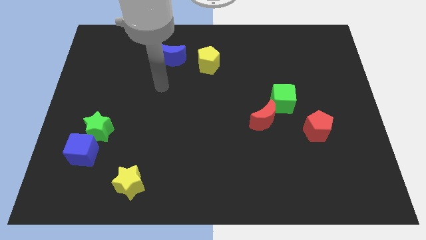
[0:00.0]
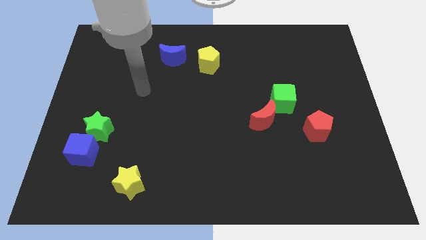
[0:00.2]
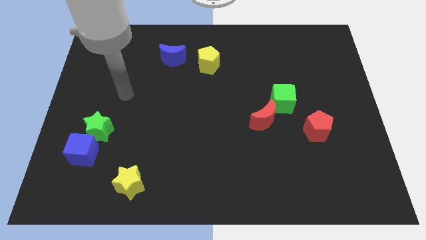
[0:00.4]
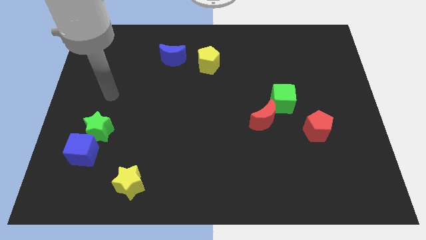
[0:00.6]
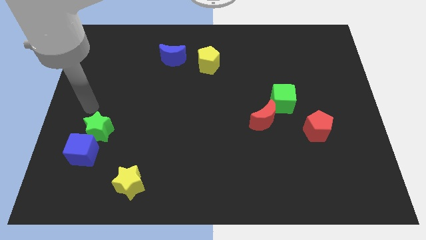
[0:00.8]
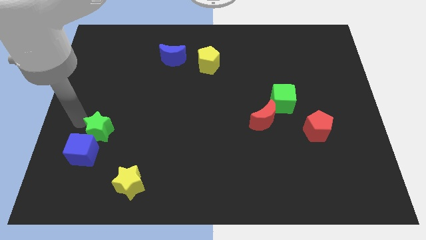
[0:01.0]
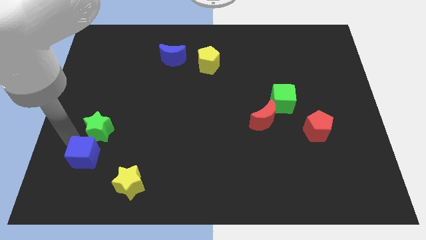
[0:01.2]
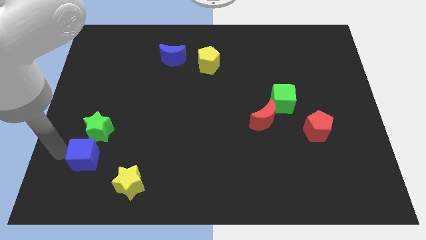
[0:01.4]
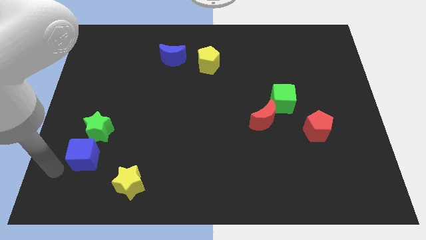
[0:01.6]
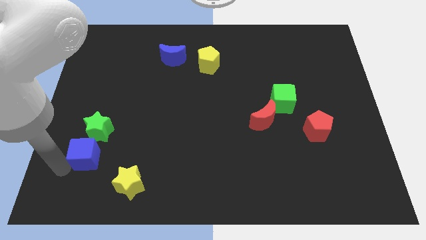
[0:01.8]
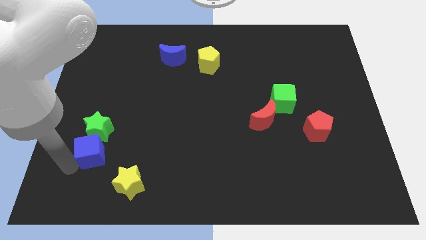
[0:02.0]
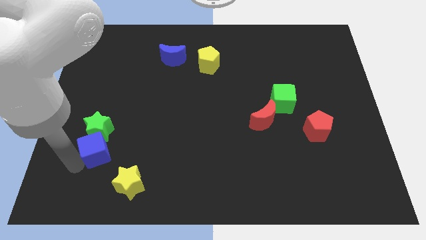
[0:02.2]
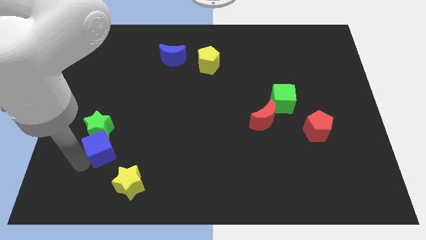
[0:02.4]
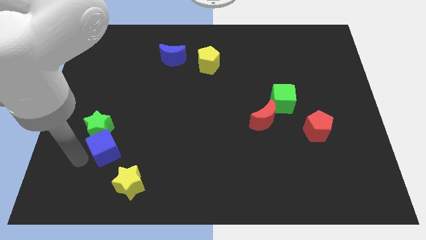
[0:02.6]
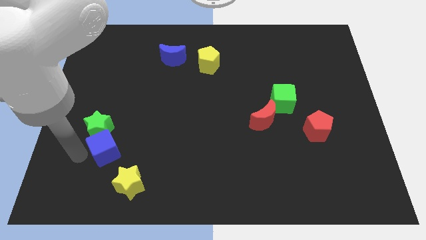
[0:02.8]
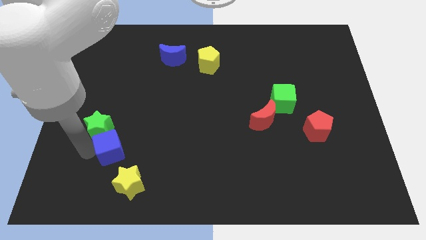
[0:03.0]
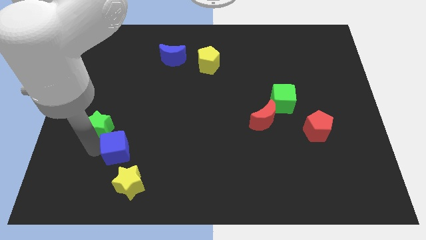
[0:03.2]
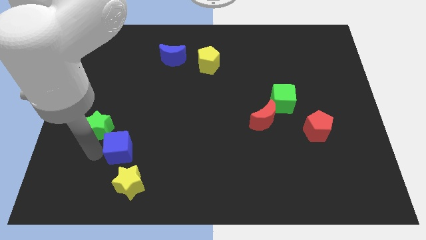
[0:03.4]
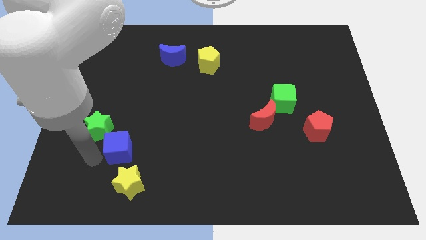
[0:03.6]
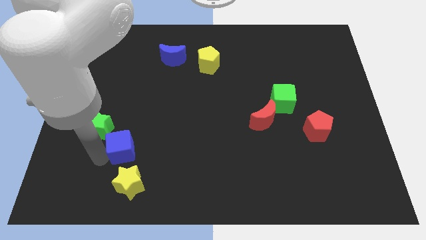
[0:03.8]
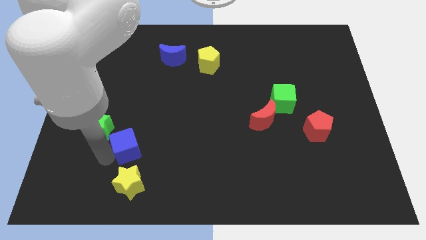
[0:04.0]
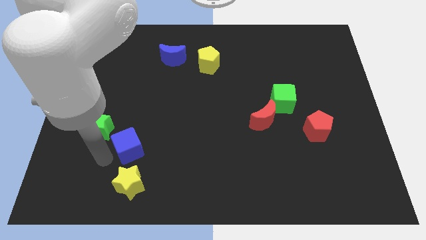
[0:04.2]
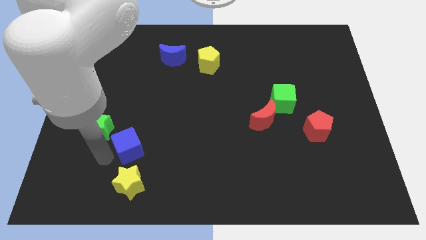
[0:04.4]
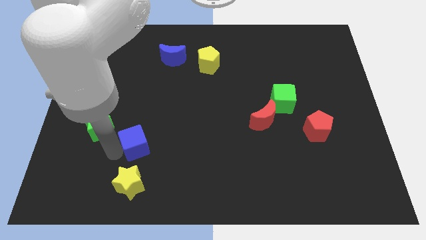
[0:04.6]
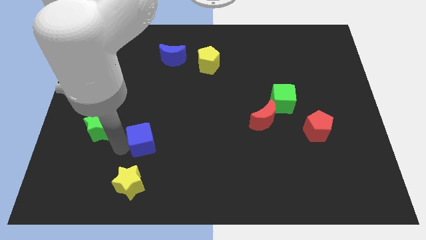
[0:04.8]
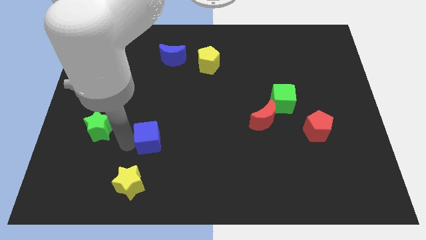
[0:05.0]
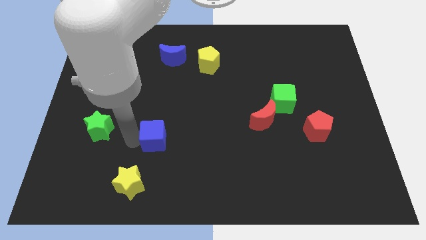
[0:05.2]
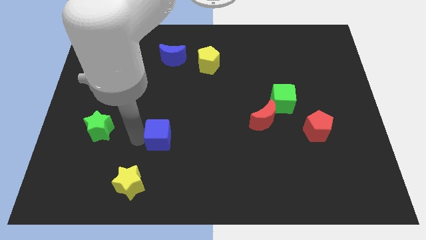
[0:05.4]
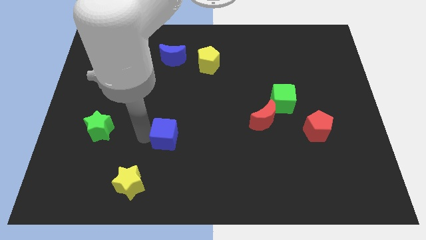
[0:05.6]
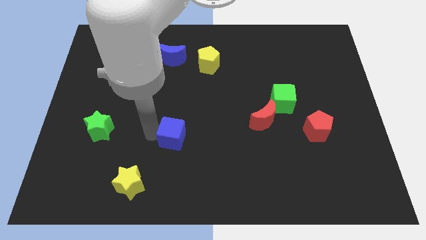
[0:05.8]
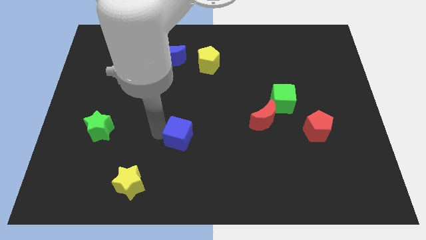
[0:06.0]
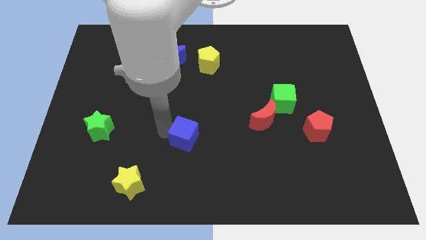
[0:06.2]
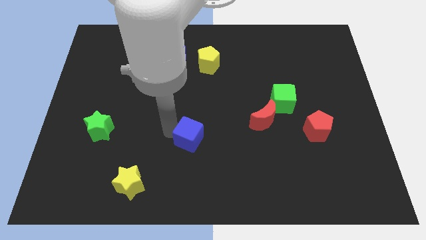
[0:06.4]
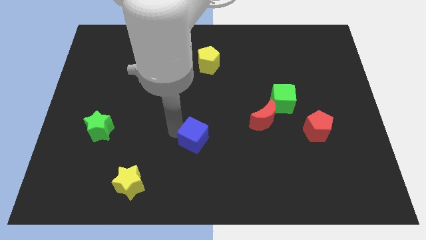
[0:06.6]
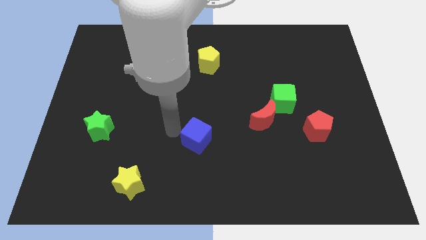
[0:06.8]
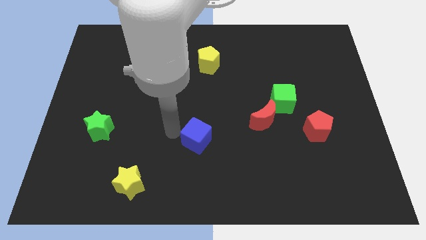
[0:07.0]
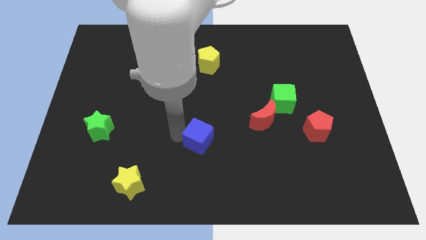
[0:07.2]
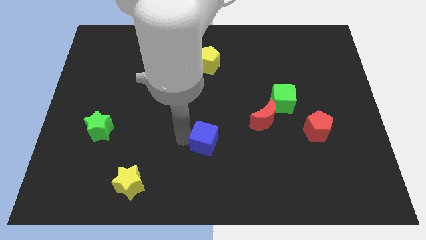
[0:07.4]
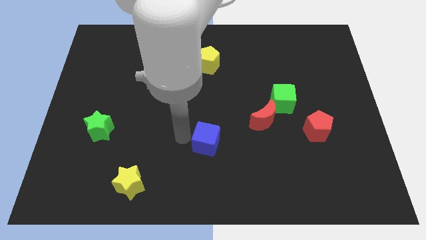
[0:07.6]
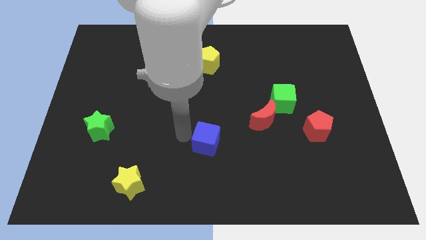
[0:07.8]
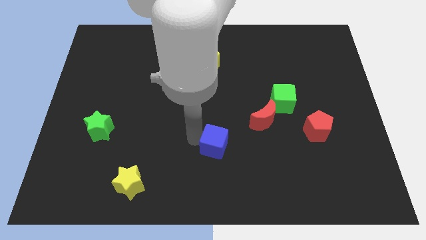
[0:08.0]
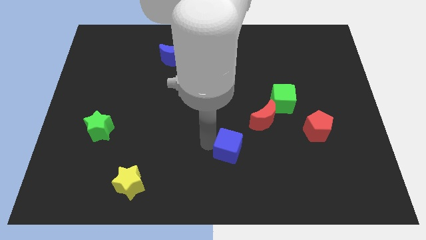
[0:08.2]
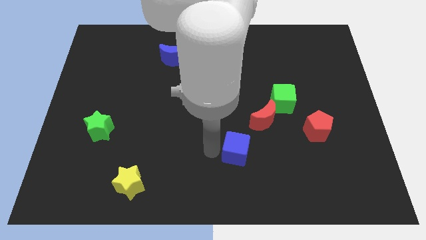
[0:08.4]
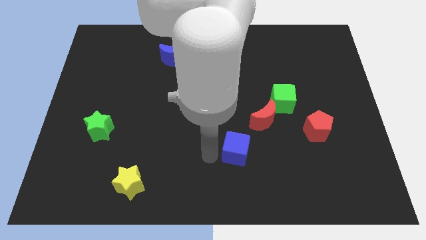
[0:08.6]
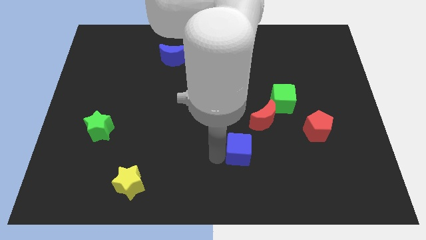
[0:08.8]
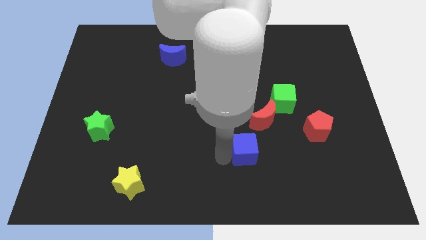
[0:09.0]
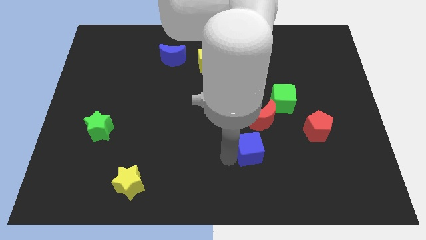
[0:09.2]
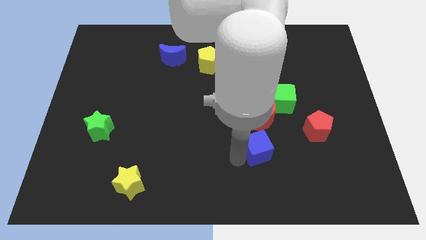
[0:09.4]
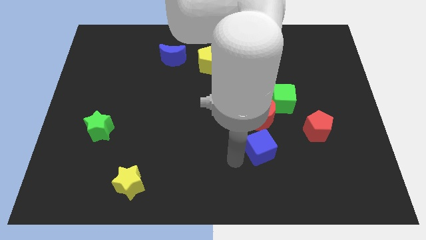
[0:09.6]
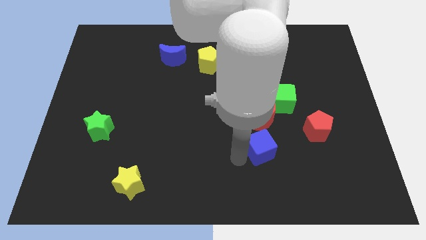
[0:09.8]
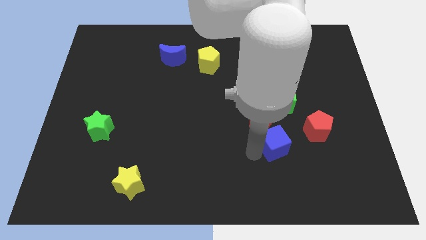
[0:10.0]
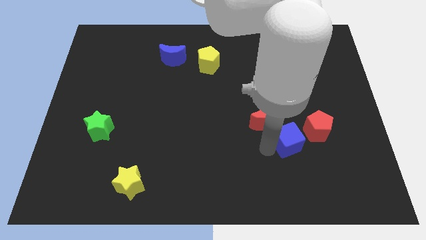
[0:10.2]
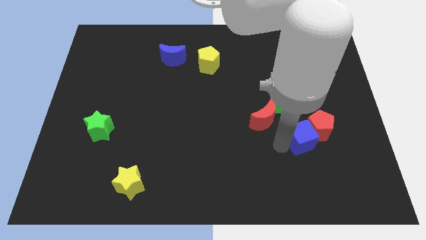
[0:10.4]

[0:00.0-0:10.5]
slide the blue cube to the red pentagon

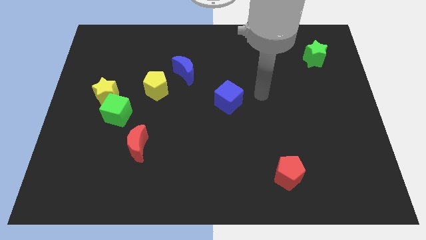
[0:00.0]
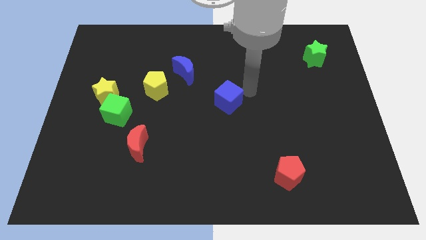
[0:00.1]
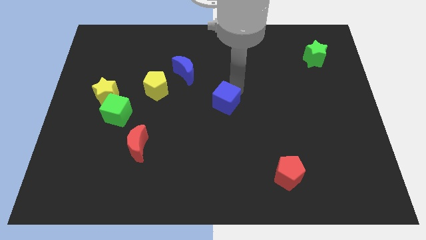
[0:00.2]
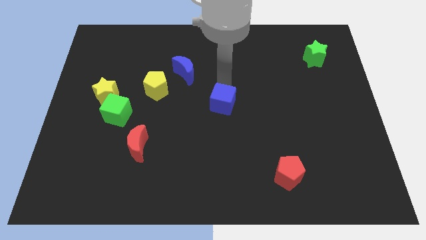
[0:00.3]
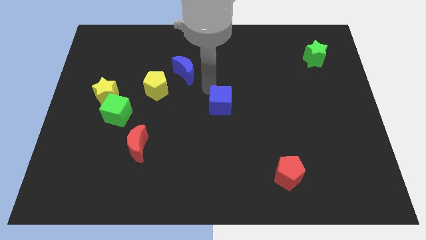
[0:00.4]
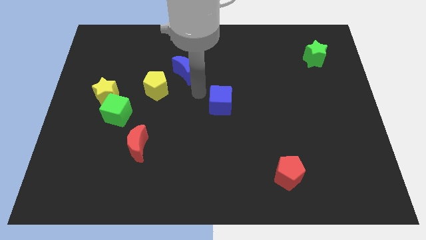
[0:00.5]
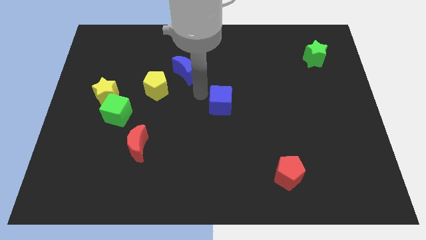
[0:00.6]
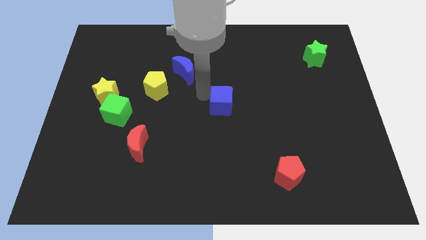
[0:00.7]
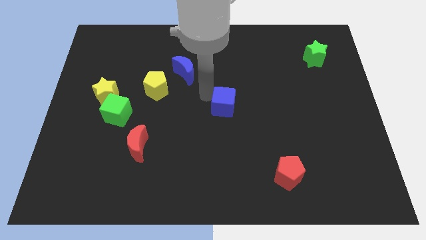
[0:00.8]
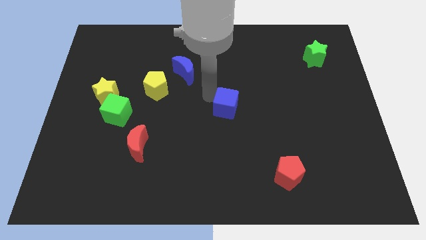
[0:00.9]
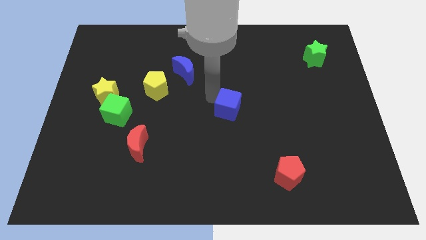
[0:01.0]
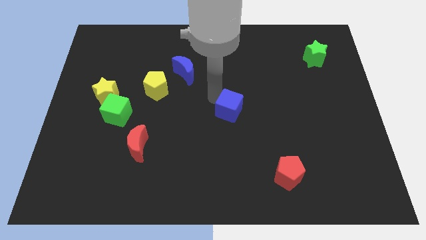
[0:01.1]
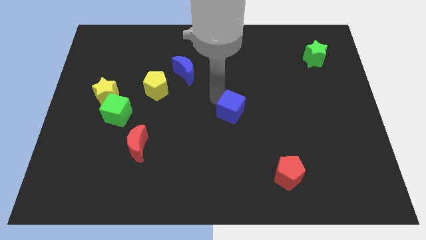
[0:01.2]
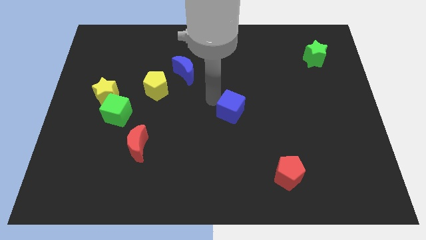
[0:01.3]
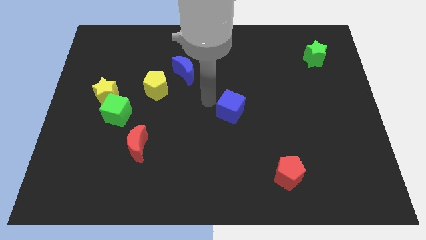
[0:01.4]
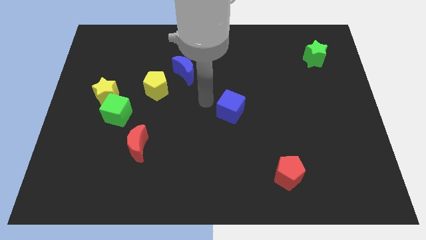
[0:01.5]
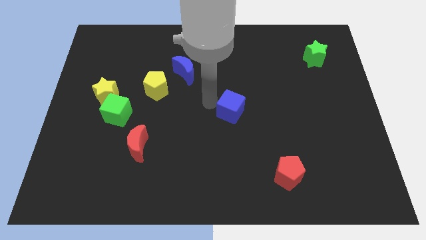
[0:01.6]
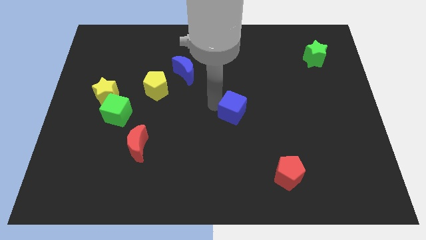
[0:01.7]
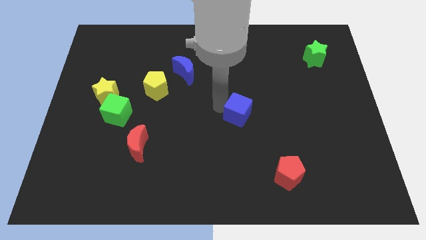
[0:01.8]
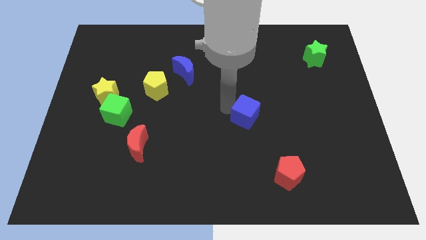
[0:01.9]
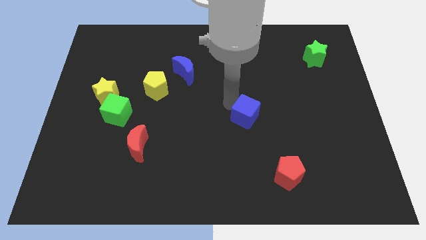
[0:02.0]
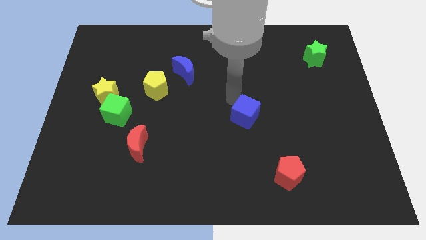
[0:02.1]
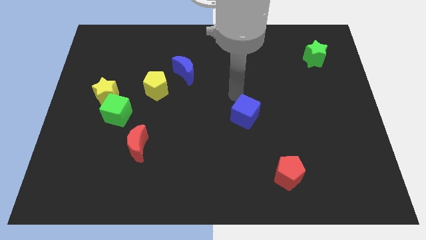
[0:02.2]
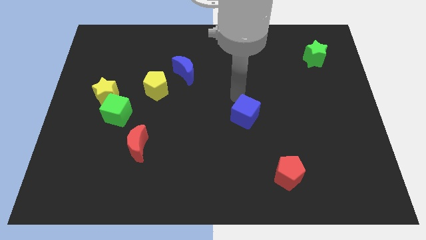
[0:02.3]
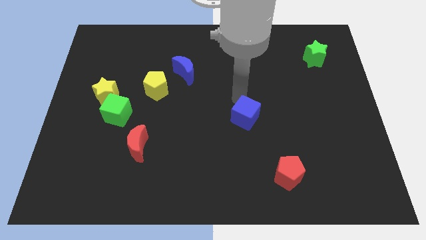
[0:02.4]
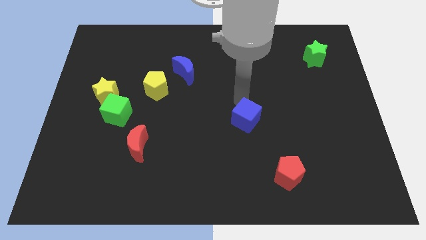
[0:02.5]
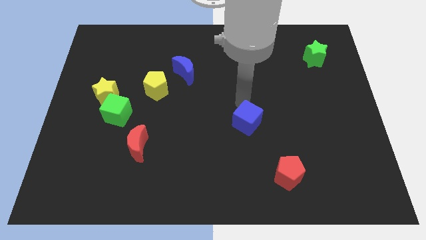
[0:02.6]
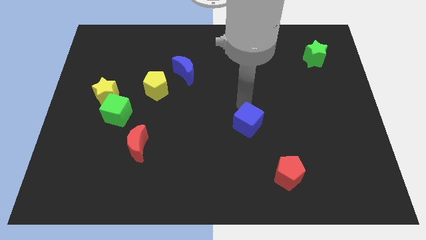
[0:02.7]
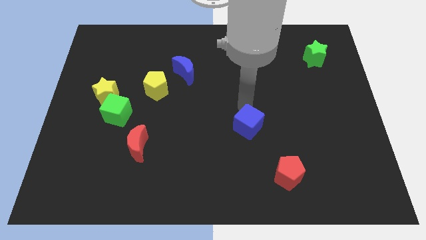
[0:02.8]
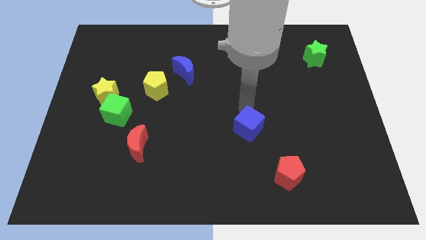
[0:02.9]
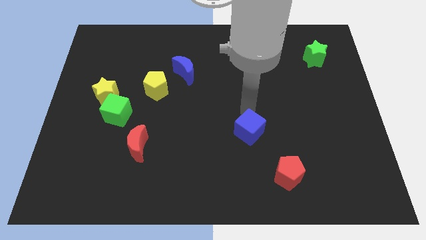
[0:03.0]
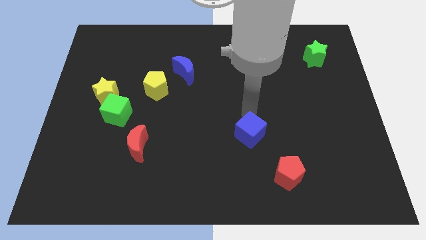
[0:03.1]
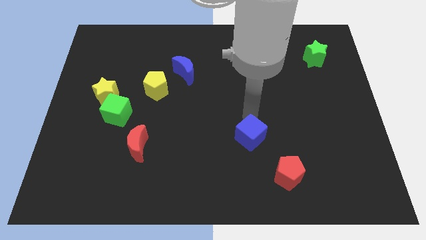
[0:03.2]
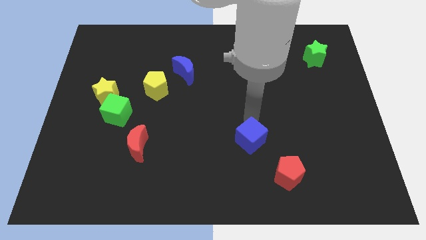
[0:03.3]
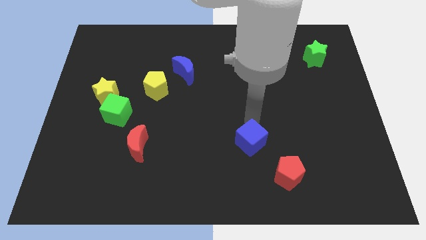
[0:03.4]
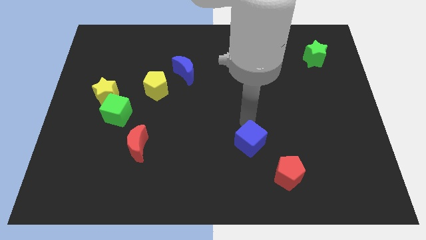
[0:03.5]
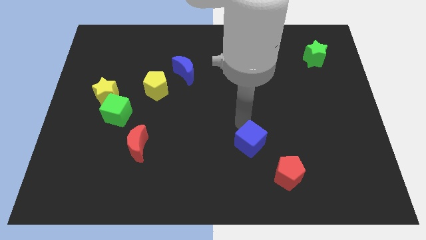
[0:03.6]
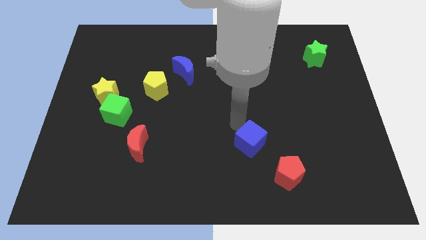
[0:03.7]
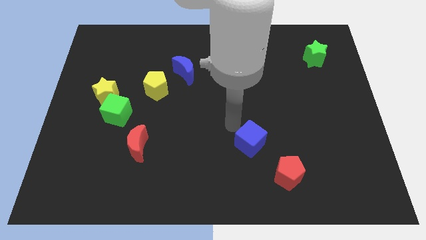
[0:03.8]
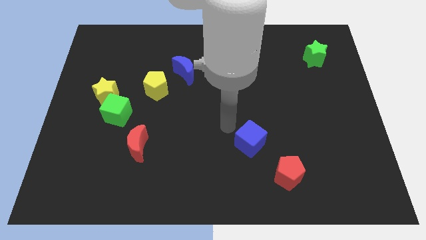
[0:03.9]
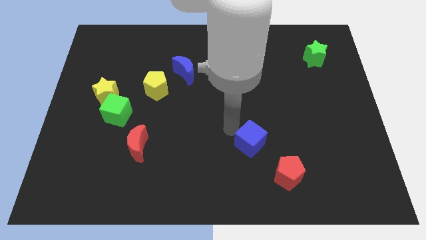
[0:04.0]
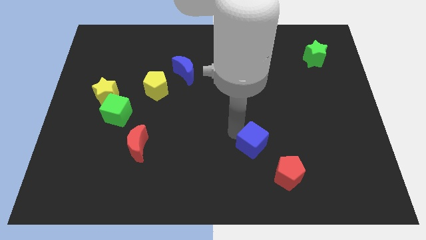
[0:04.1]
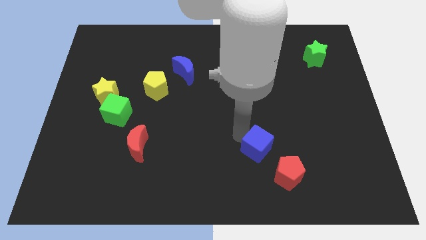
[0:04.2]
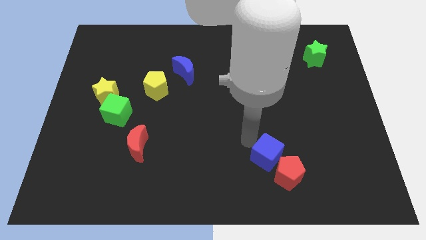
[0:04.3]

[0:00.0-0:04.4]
put the blue cube towards the red pentagon
